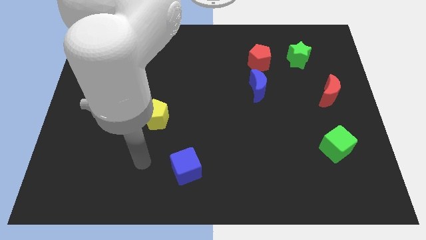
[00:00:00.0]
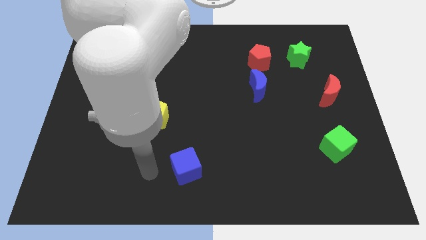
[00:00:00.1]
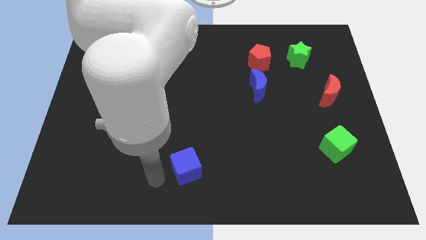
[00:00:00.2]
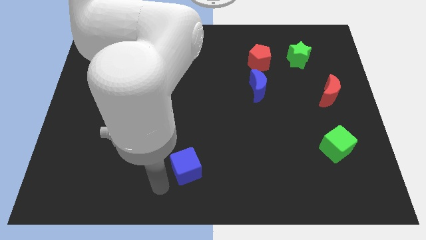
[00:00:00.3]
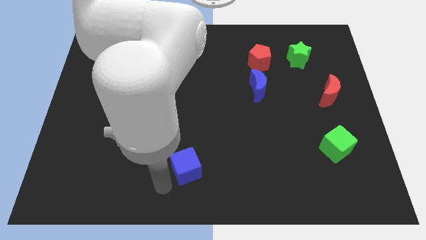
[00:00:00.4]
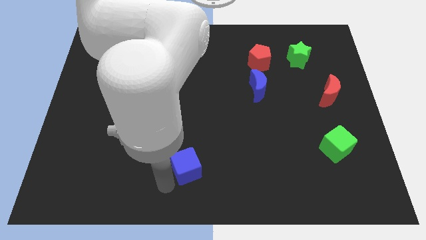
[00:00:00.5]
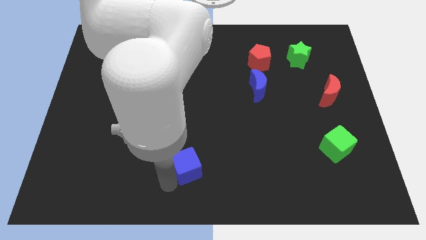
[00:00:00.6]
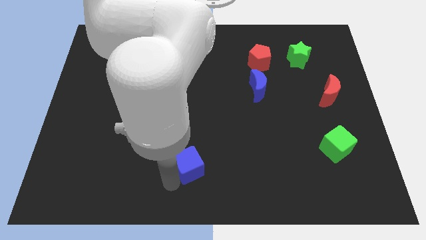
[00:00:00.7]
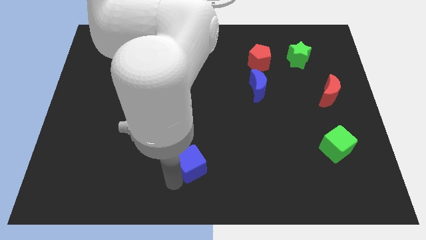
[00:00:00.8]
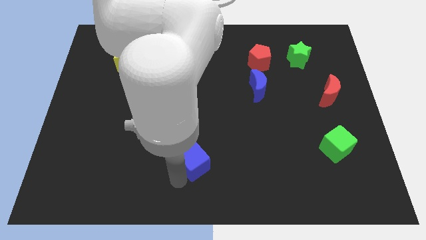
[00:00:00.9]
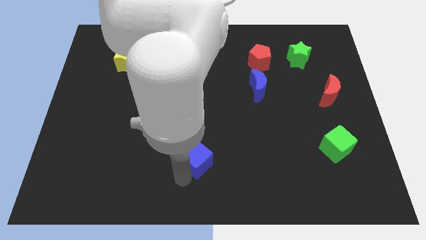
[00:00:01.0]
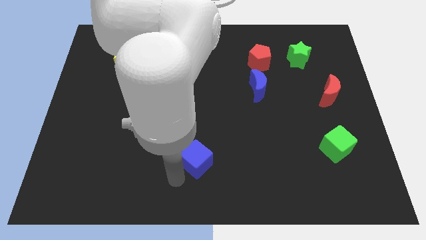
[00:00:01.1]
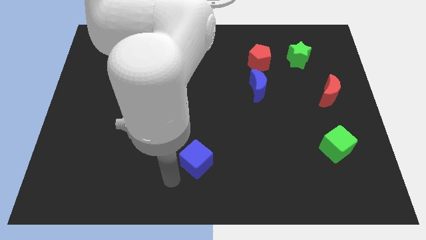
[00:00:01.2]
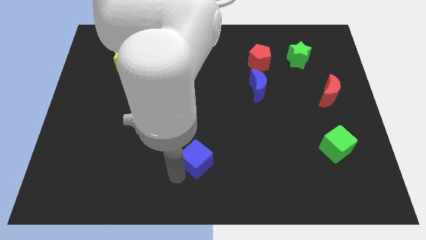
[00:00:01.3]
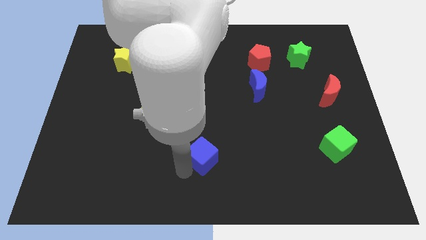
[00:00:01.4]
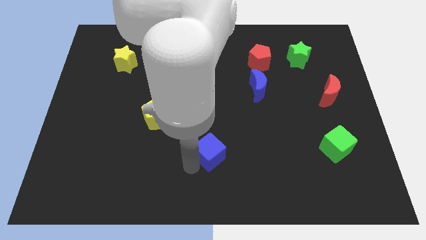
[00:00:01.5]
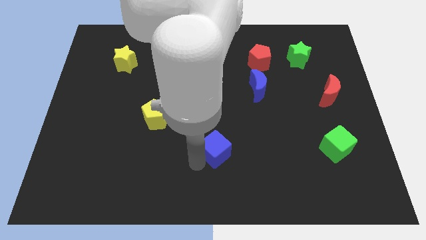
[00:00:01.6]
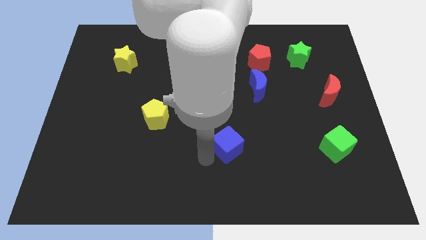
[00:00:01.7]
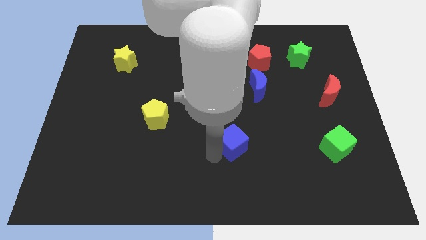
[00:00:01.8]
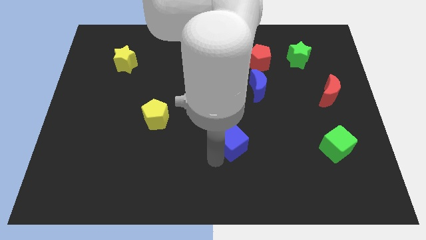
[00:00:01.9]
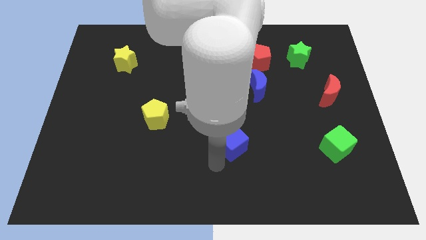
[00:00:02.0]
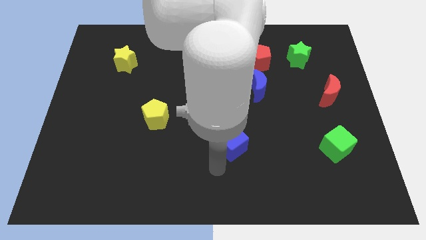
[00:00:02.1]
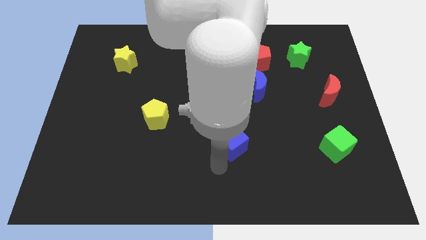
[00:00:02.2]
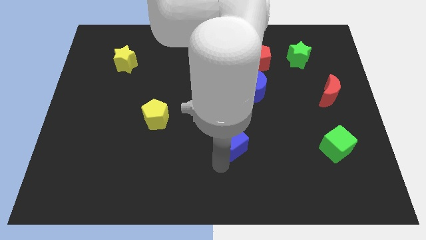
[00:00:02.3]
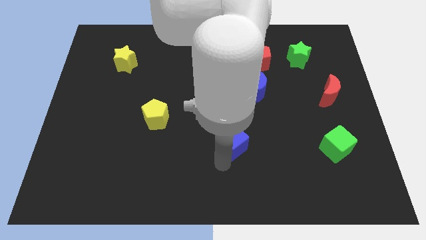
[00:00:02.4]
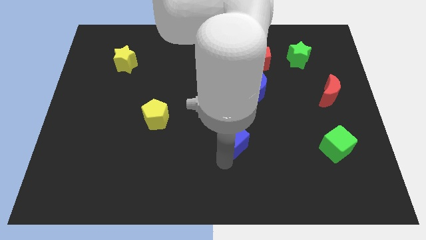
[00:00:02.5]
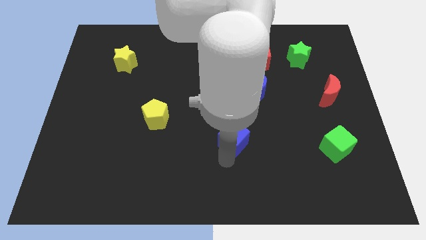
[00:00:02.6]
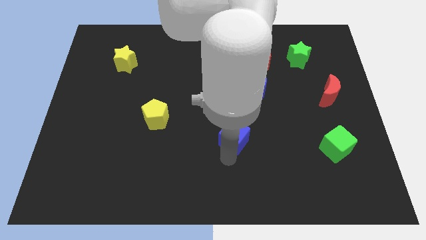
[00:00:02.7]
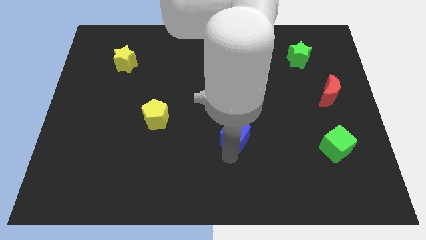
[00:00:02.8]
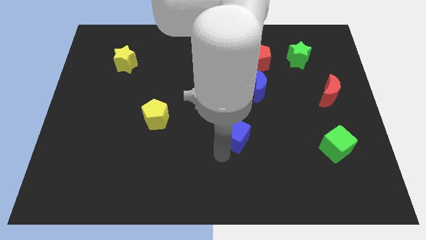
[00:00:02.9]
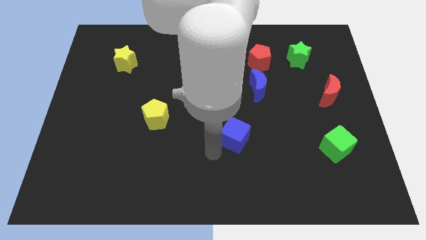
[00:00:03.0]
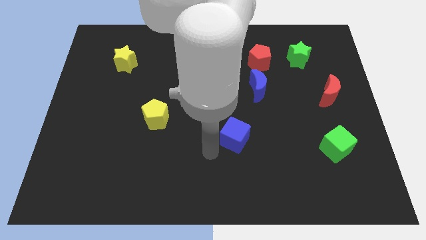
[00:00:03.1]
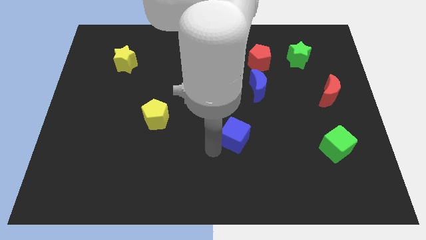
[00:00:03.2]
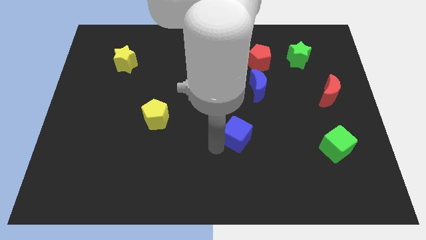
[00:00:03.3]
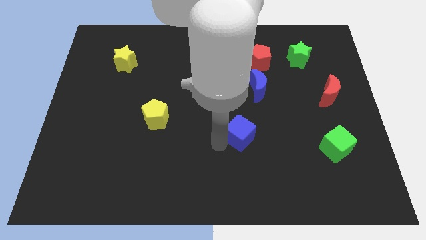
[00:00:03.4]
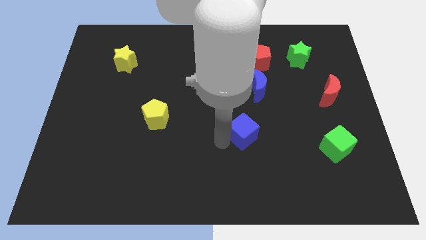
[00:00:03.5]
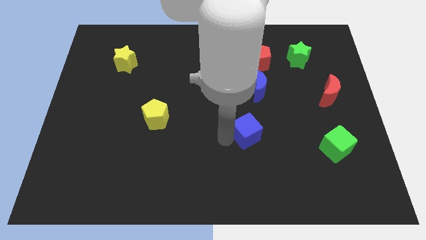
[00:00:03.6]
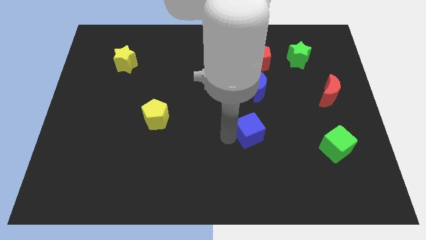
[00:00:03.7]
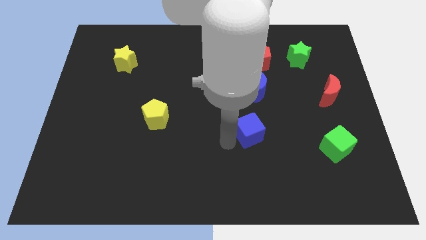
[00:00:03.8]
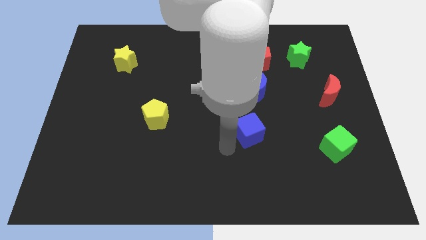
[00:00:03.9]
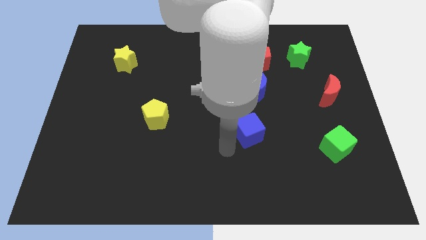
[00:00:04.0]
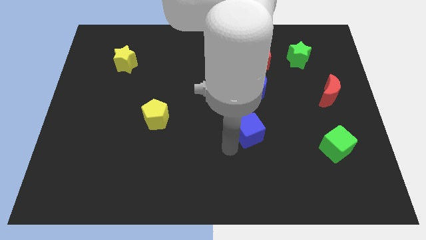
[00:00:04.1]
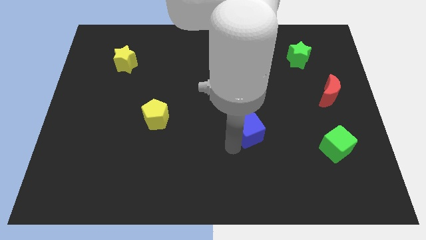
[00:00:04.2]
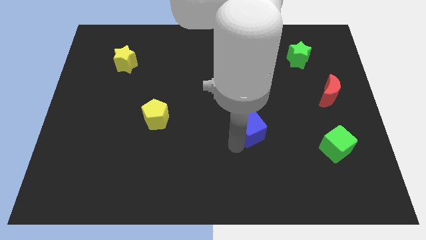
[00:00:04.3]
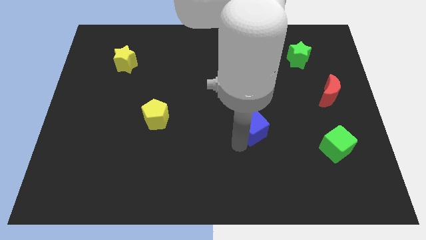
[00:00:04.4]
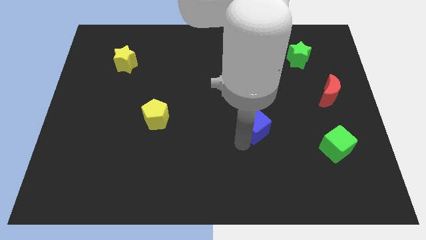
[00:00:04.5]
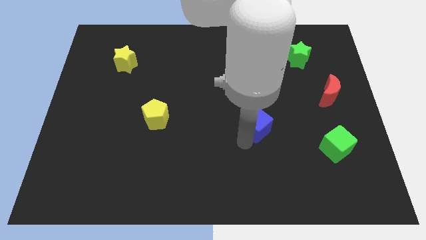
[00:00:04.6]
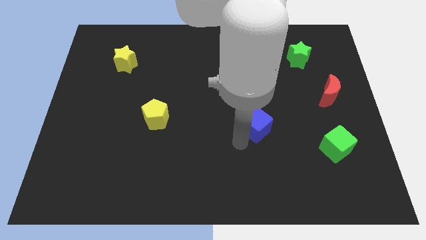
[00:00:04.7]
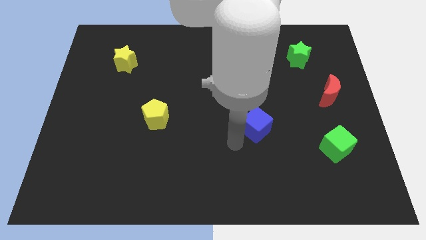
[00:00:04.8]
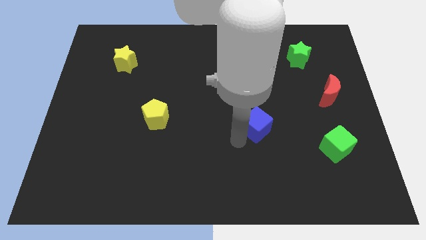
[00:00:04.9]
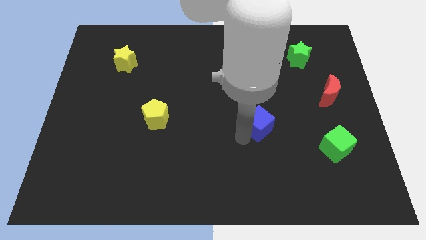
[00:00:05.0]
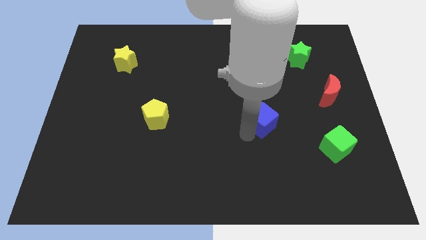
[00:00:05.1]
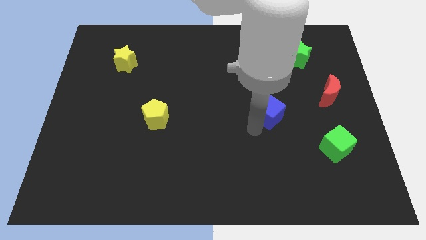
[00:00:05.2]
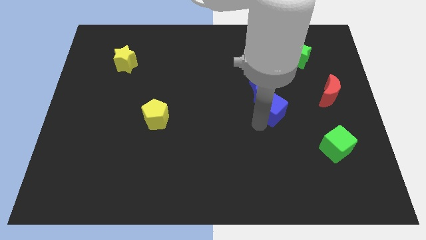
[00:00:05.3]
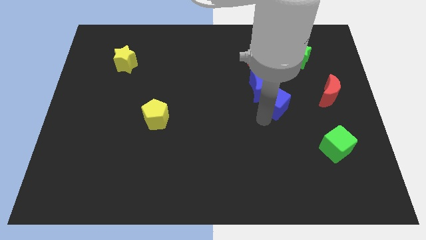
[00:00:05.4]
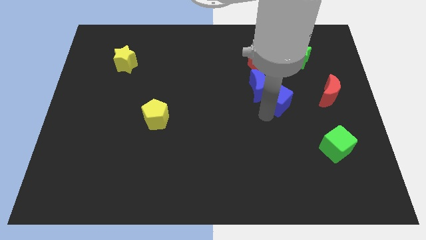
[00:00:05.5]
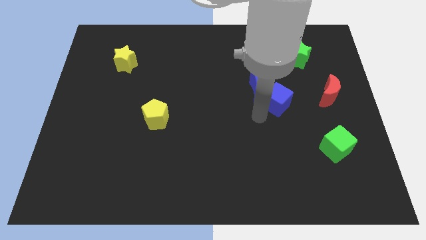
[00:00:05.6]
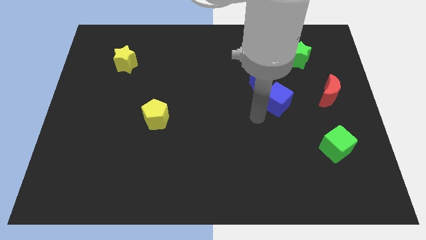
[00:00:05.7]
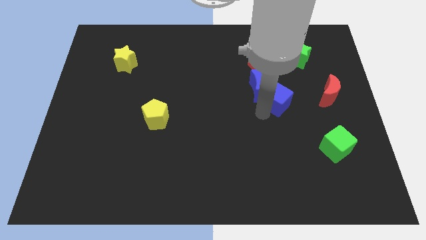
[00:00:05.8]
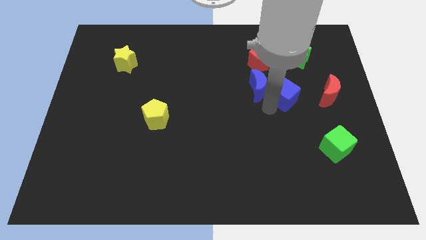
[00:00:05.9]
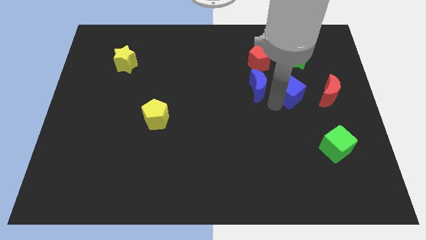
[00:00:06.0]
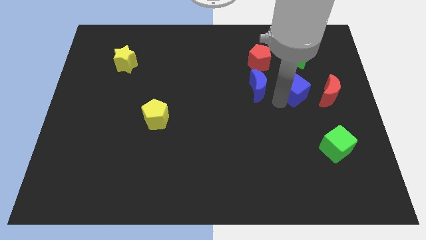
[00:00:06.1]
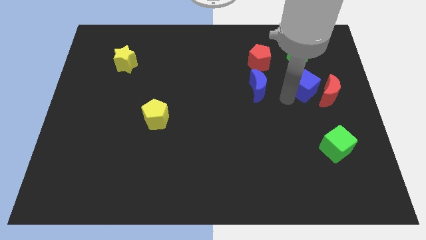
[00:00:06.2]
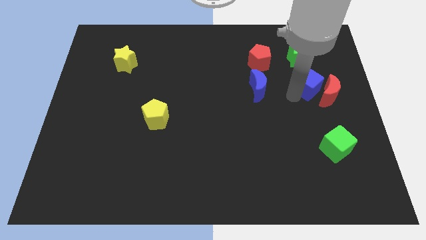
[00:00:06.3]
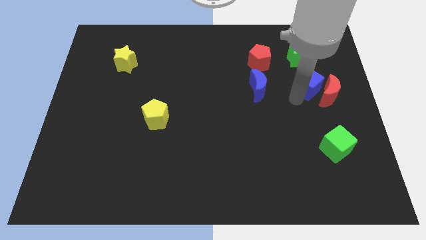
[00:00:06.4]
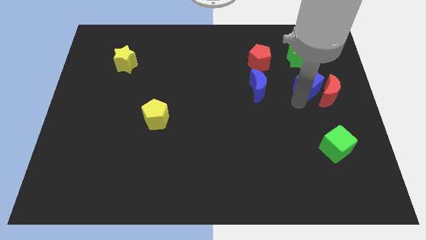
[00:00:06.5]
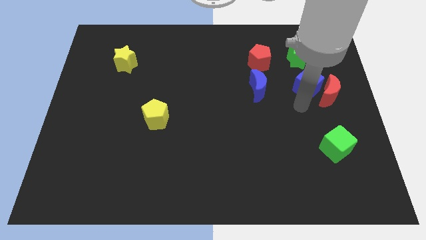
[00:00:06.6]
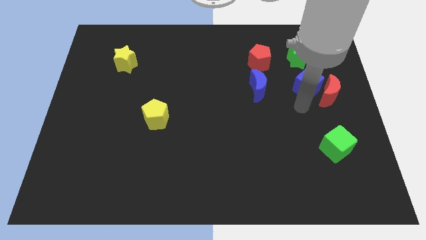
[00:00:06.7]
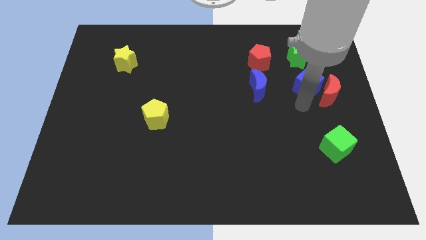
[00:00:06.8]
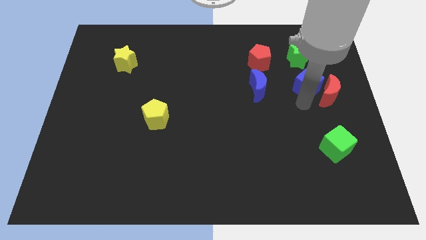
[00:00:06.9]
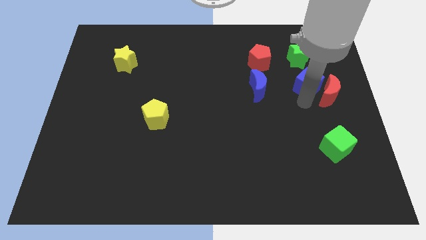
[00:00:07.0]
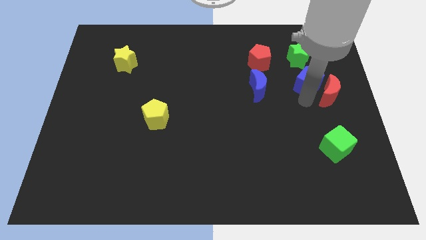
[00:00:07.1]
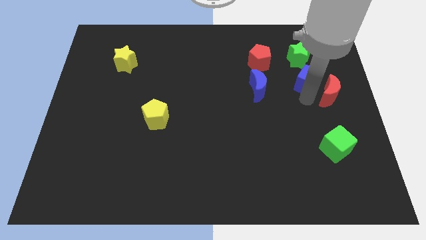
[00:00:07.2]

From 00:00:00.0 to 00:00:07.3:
slide the blue cube to the top of the red moon

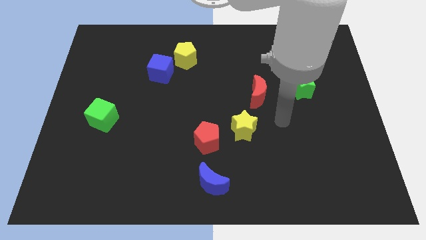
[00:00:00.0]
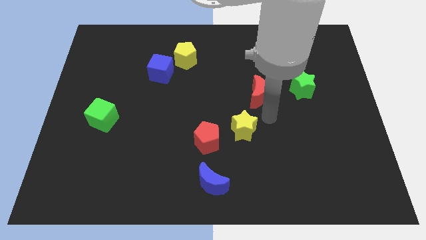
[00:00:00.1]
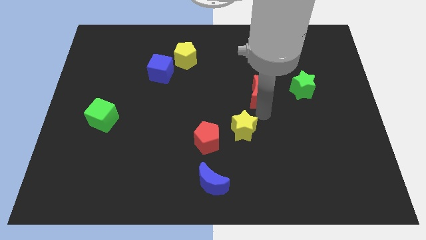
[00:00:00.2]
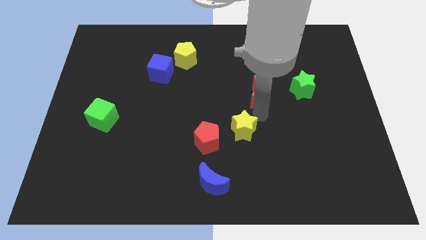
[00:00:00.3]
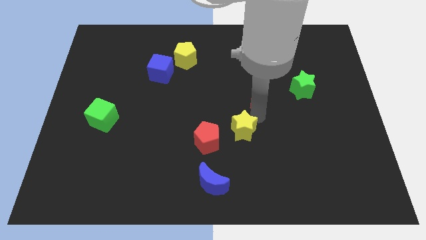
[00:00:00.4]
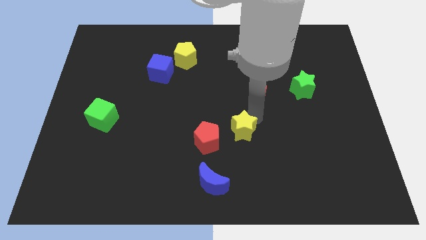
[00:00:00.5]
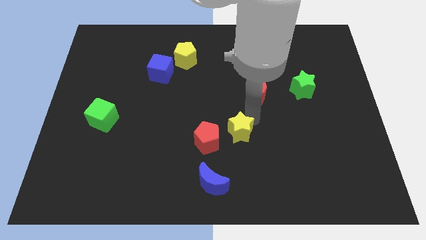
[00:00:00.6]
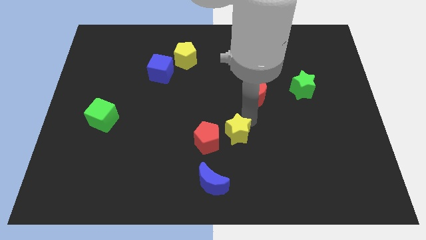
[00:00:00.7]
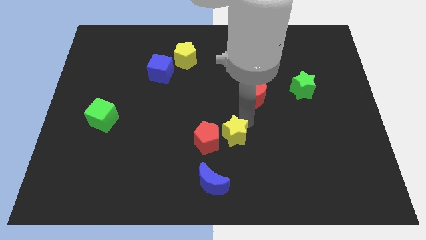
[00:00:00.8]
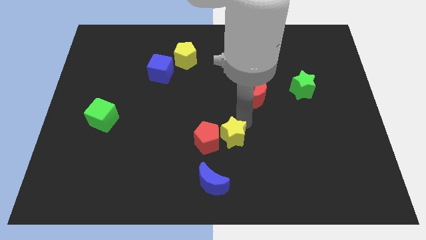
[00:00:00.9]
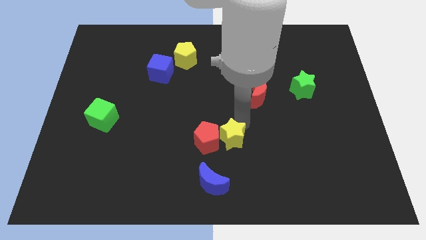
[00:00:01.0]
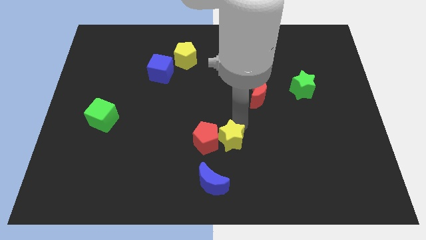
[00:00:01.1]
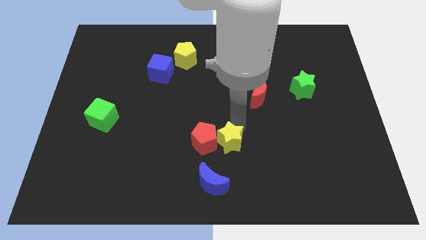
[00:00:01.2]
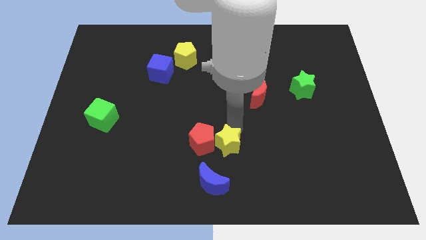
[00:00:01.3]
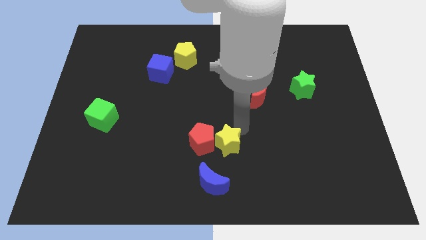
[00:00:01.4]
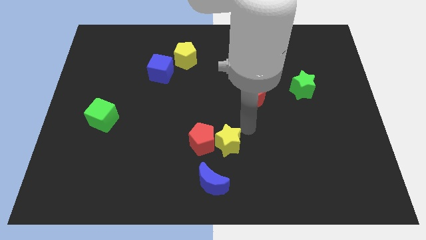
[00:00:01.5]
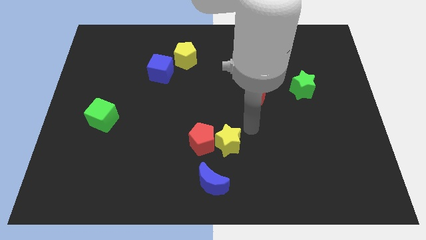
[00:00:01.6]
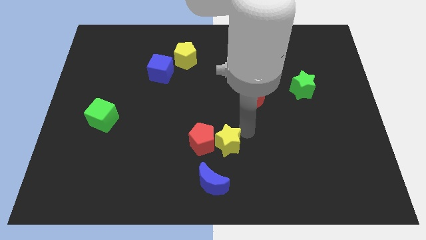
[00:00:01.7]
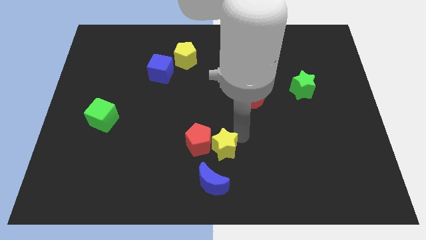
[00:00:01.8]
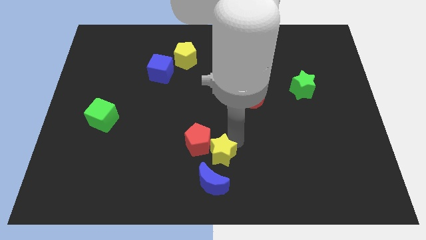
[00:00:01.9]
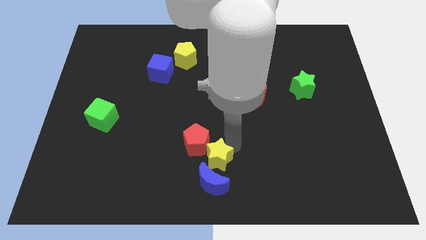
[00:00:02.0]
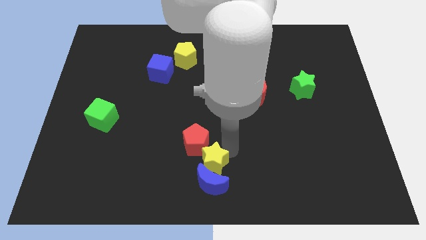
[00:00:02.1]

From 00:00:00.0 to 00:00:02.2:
push the yellow star diagonally up and to the left of the blue moon
